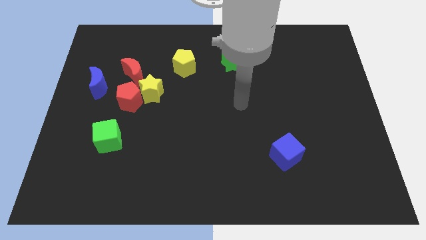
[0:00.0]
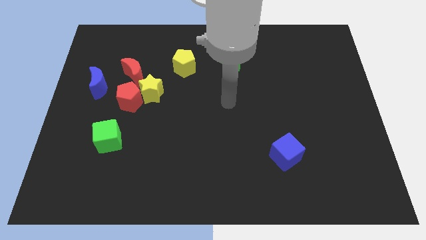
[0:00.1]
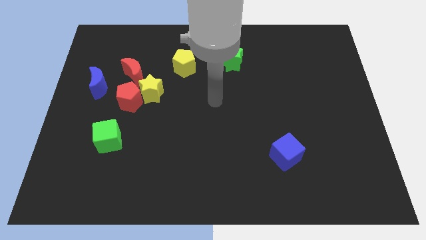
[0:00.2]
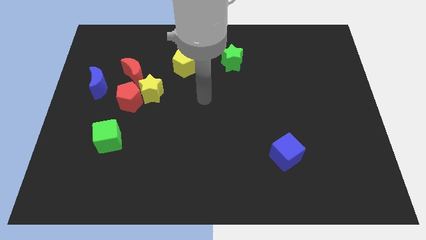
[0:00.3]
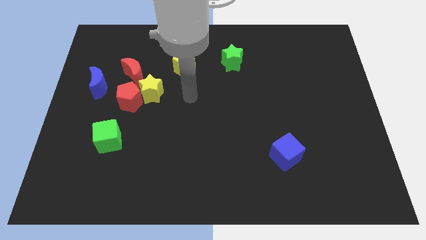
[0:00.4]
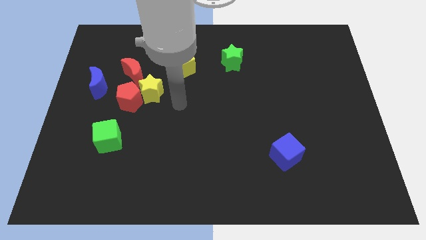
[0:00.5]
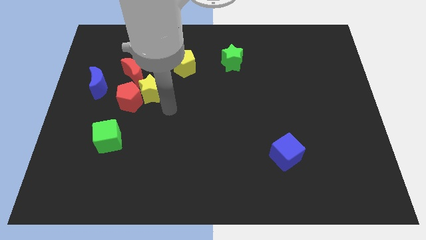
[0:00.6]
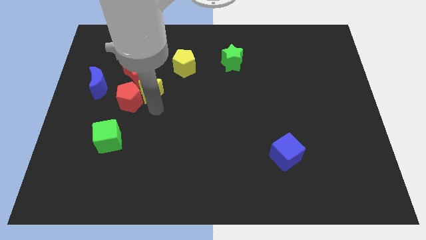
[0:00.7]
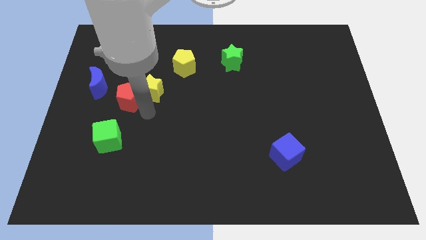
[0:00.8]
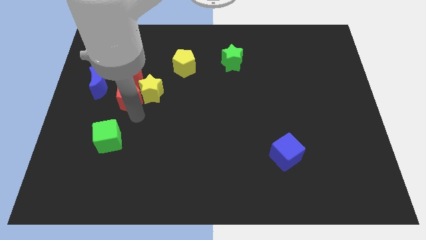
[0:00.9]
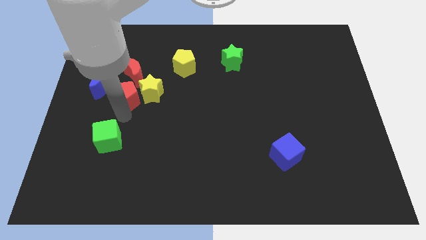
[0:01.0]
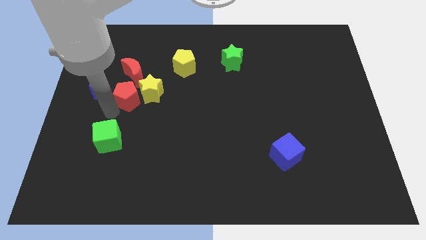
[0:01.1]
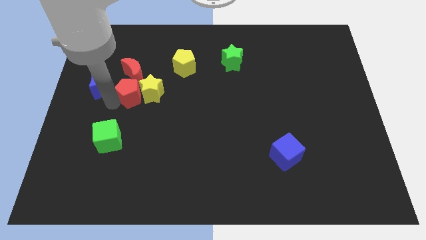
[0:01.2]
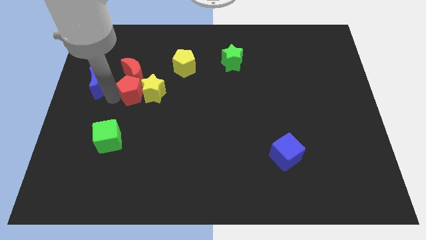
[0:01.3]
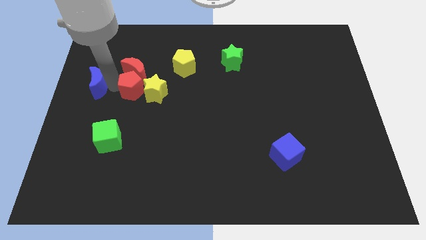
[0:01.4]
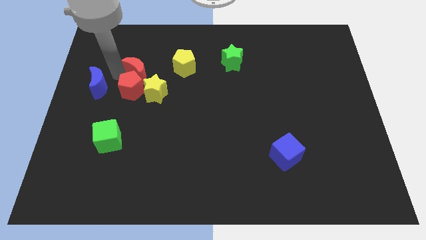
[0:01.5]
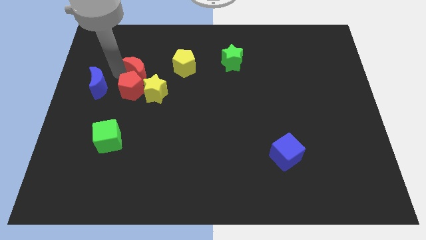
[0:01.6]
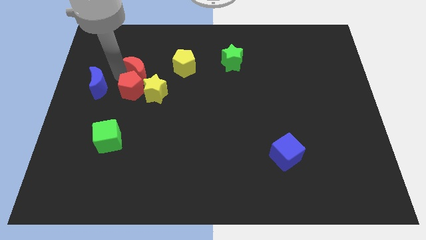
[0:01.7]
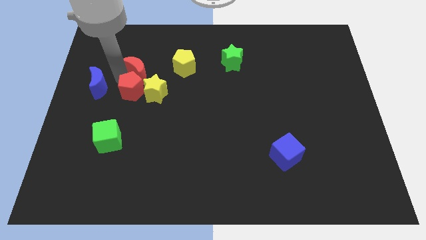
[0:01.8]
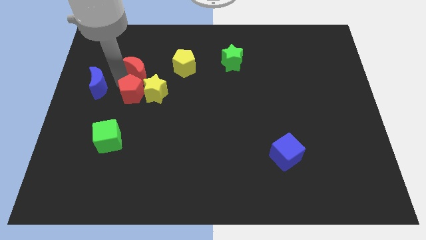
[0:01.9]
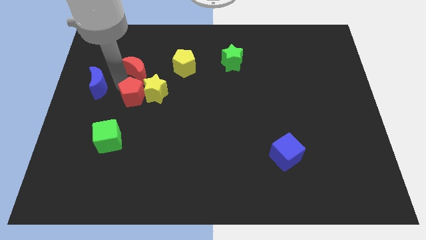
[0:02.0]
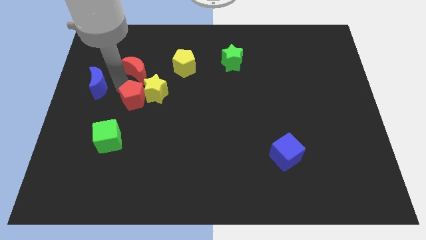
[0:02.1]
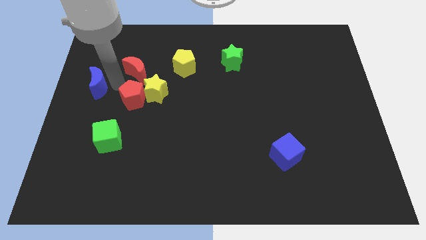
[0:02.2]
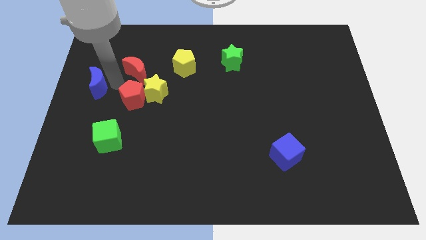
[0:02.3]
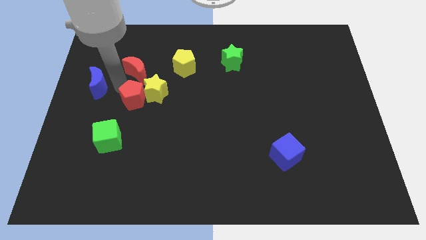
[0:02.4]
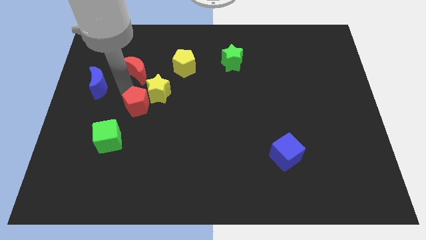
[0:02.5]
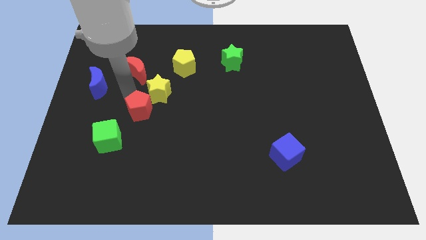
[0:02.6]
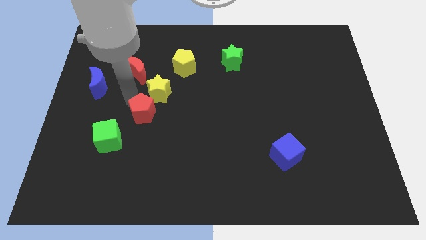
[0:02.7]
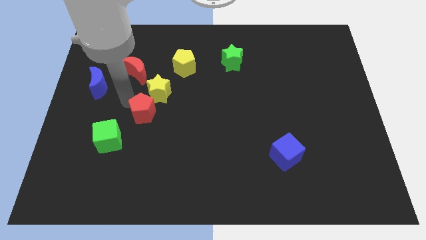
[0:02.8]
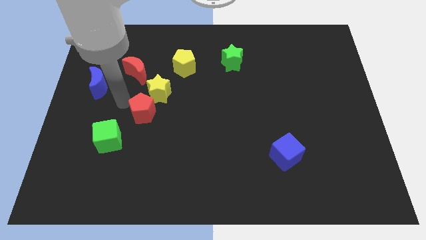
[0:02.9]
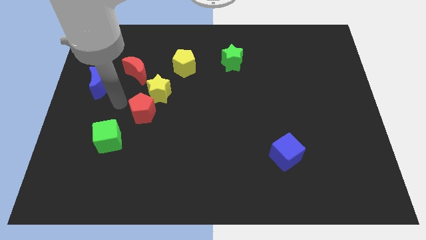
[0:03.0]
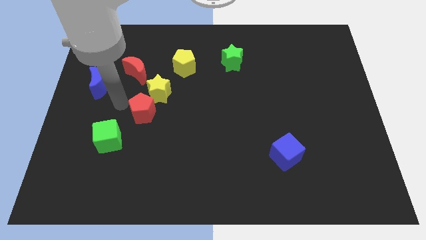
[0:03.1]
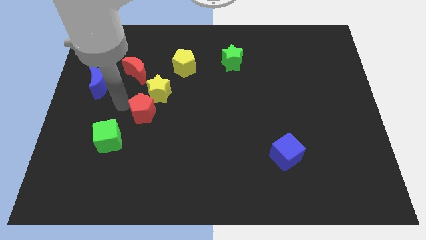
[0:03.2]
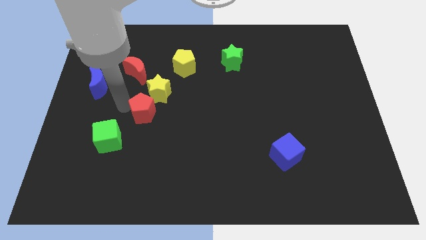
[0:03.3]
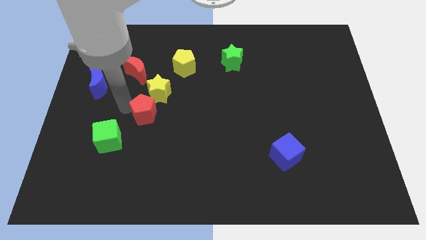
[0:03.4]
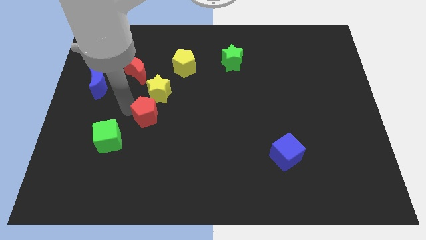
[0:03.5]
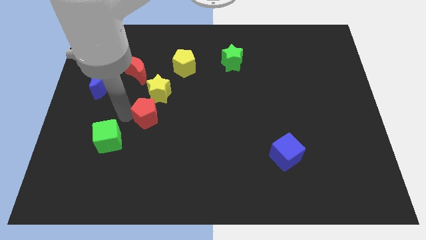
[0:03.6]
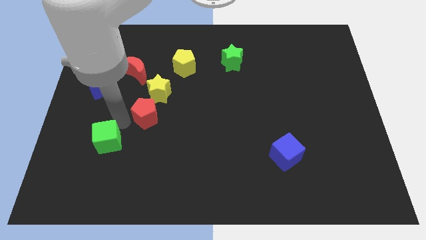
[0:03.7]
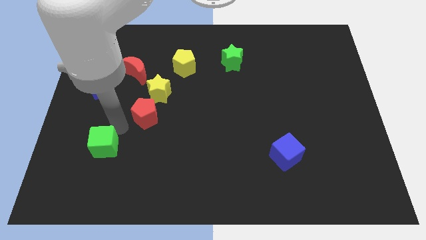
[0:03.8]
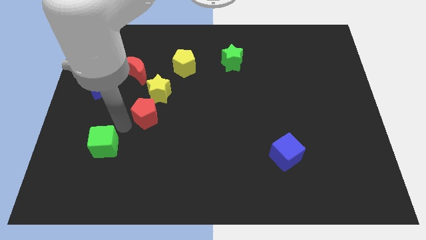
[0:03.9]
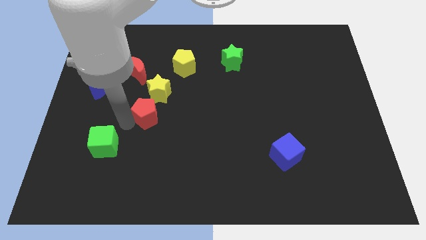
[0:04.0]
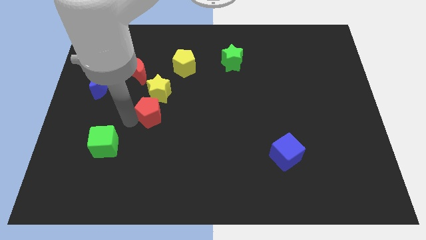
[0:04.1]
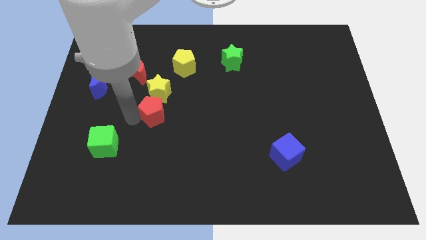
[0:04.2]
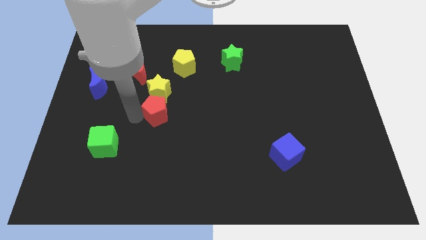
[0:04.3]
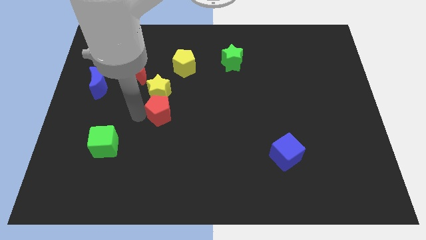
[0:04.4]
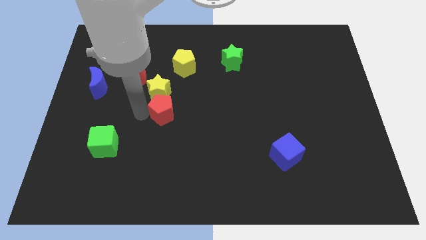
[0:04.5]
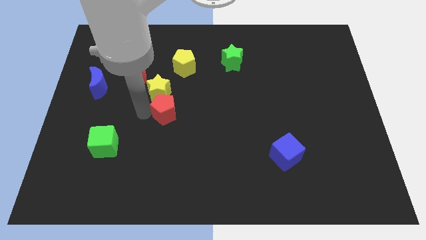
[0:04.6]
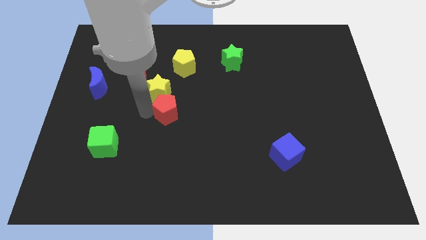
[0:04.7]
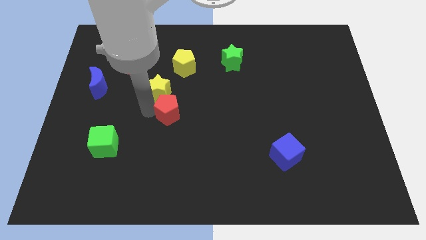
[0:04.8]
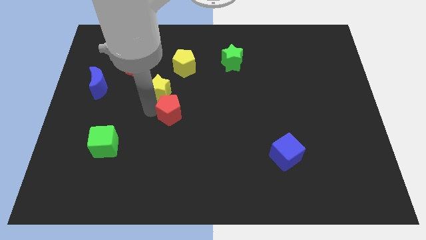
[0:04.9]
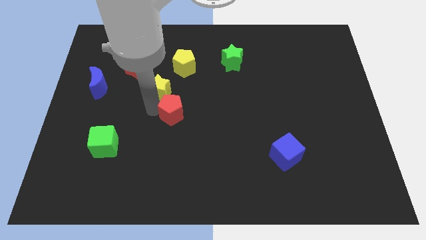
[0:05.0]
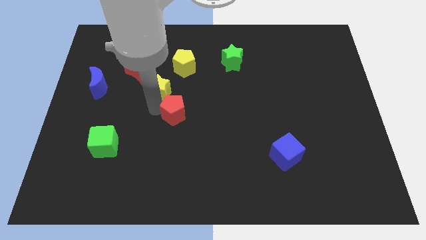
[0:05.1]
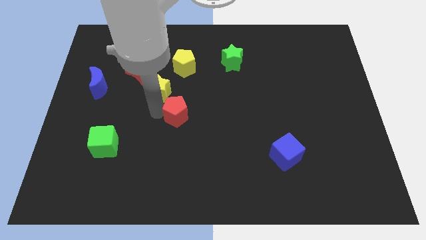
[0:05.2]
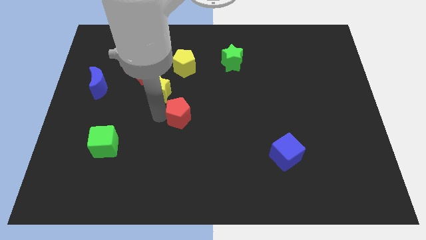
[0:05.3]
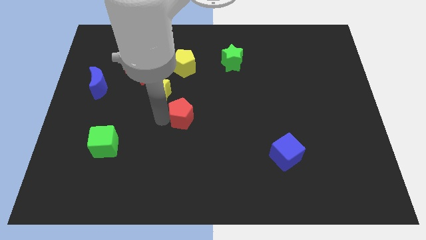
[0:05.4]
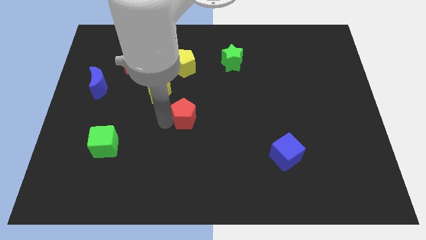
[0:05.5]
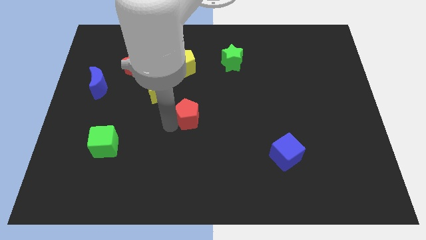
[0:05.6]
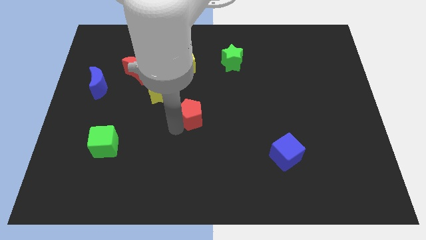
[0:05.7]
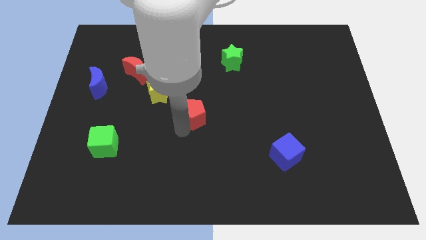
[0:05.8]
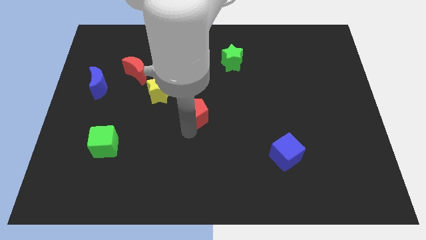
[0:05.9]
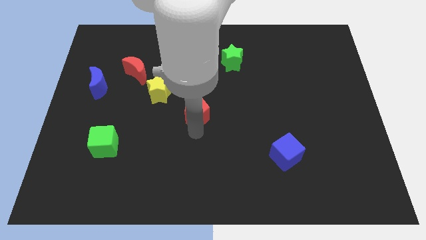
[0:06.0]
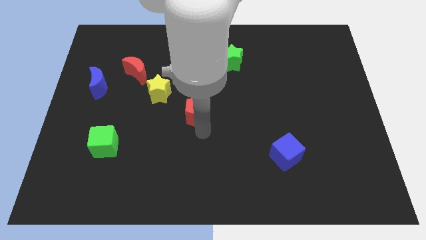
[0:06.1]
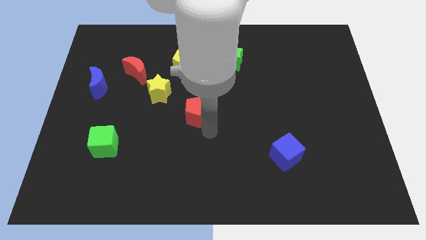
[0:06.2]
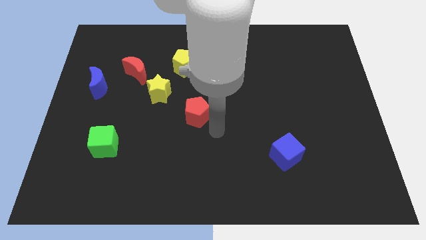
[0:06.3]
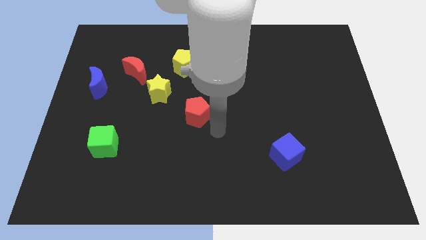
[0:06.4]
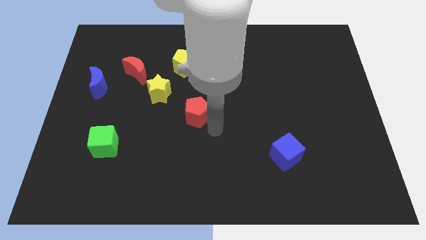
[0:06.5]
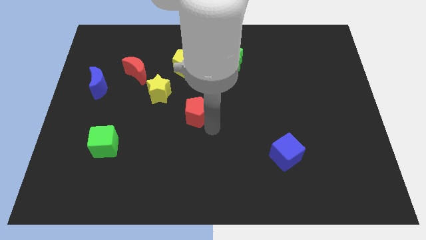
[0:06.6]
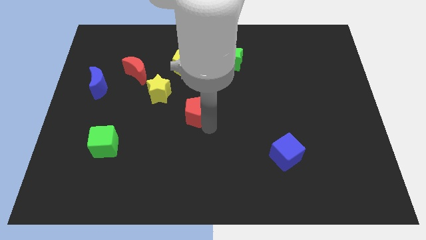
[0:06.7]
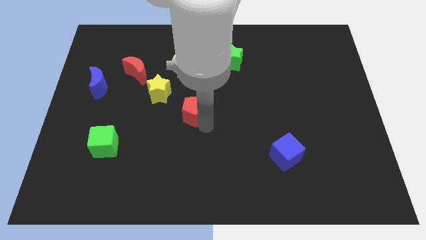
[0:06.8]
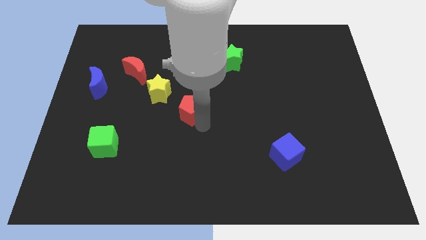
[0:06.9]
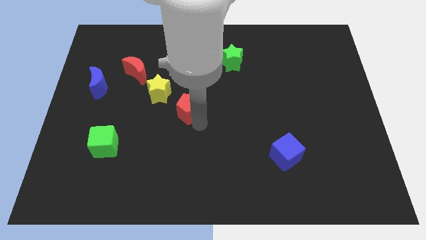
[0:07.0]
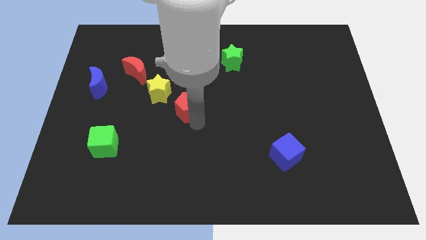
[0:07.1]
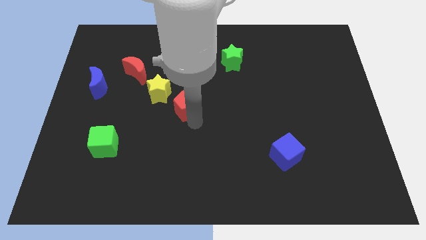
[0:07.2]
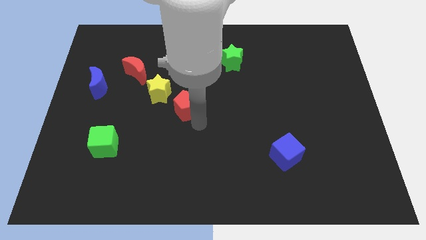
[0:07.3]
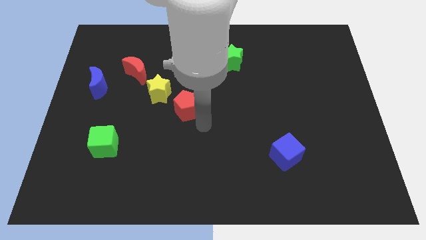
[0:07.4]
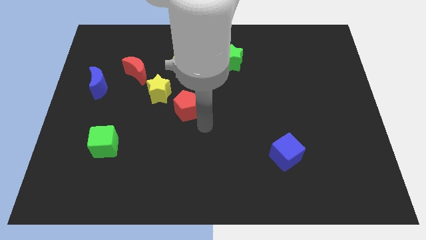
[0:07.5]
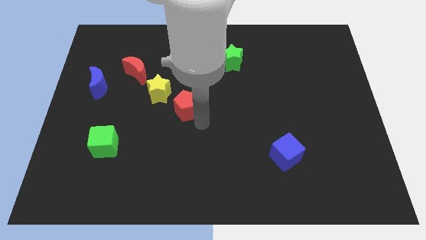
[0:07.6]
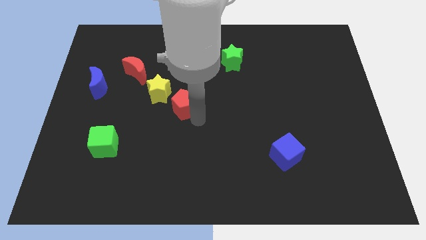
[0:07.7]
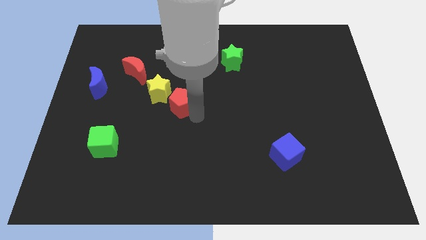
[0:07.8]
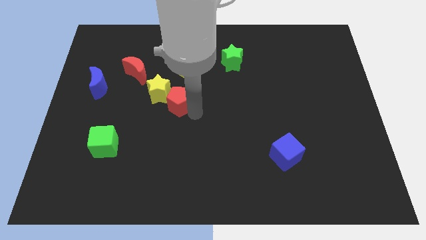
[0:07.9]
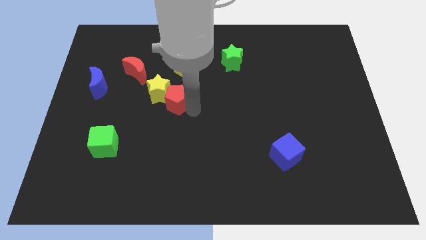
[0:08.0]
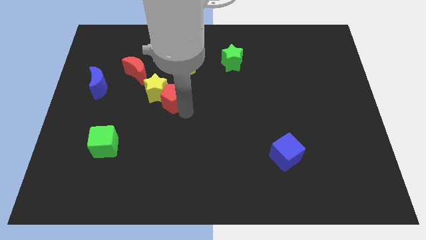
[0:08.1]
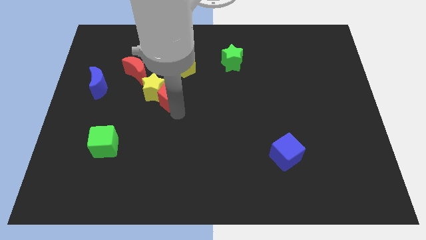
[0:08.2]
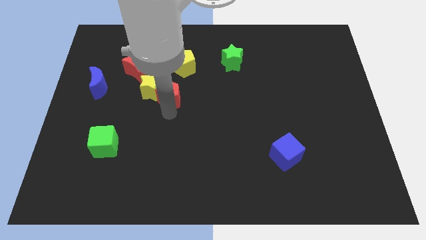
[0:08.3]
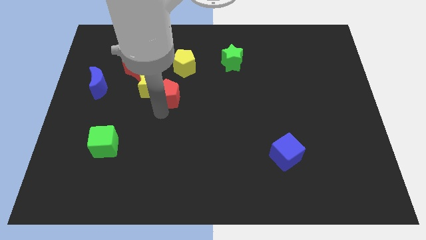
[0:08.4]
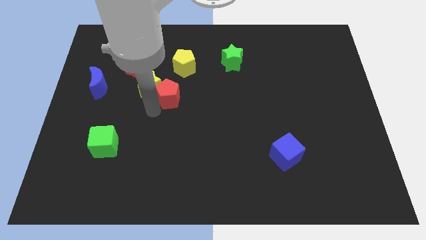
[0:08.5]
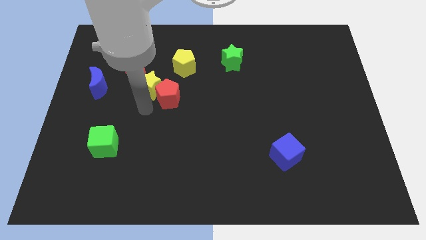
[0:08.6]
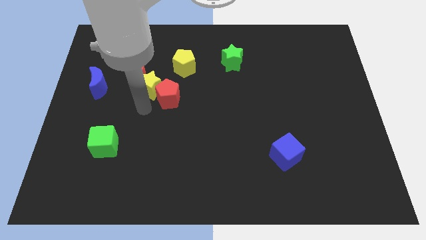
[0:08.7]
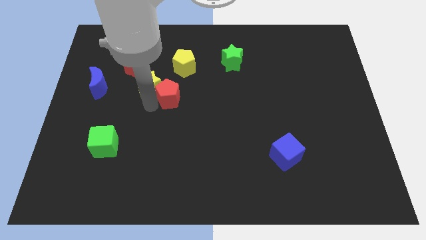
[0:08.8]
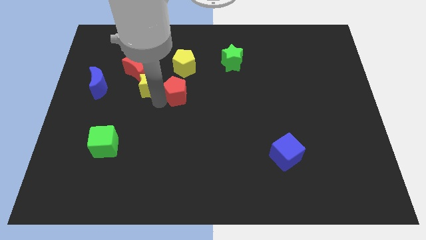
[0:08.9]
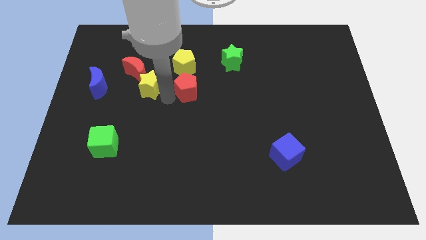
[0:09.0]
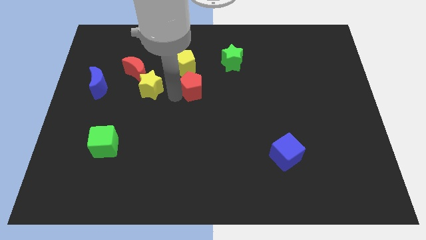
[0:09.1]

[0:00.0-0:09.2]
put the red pentagon diagonally down and to the right of the yellow pentagon
